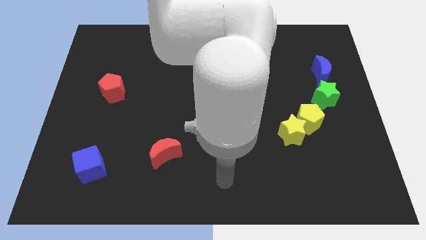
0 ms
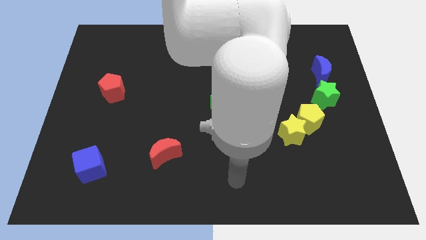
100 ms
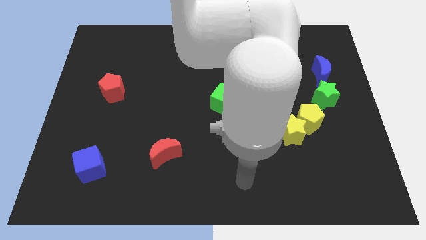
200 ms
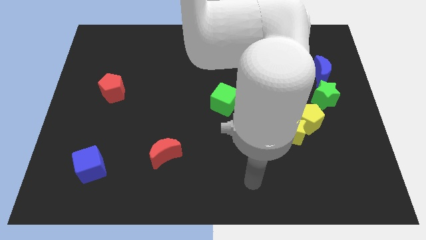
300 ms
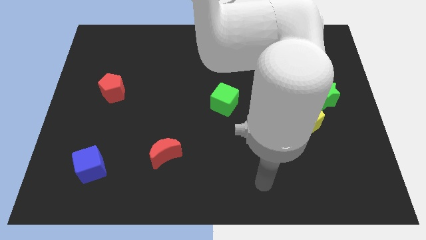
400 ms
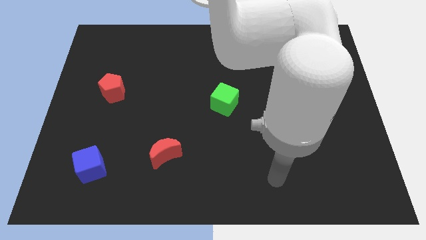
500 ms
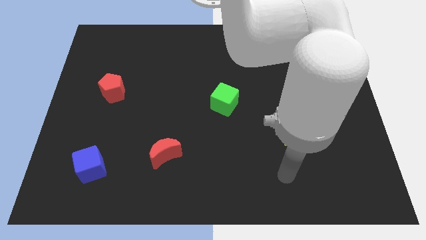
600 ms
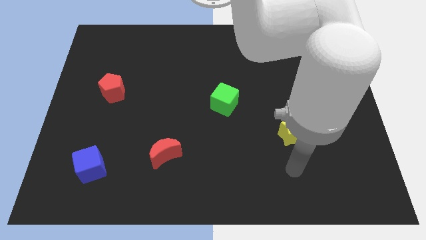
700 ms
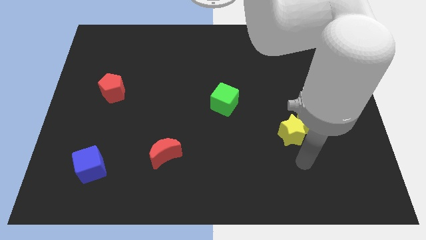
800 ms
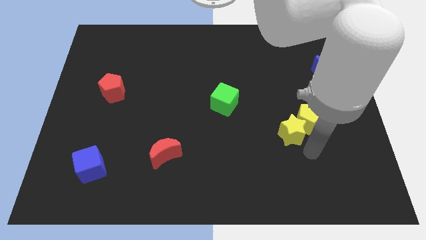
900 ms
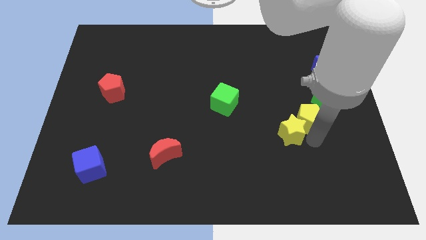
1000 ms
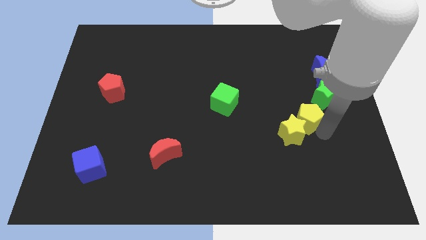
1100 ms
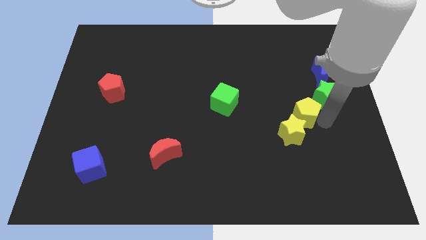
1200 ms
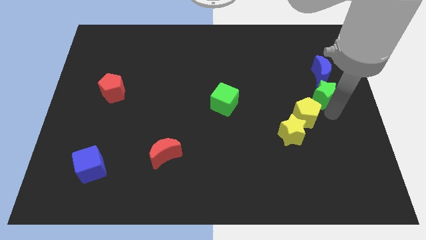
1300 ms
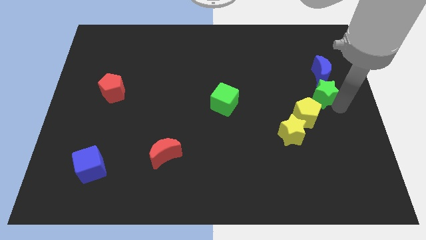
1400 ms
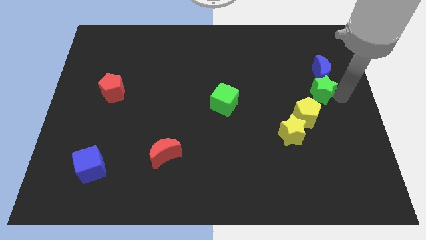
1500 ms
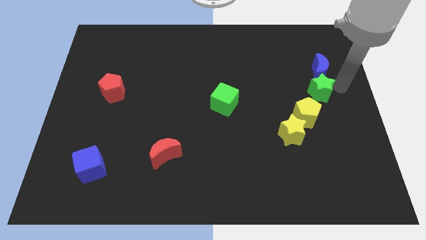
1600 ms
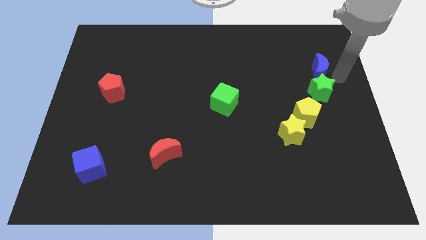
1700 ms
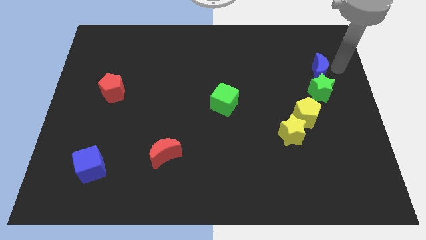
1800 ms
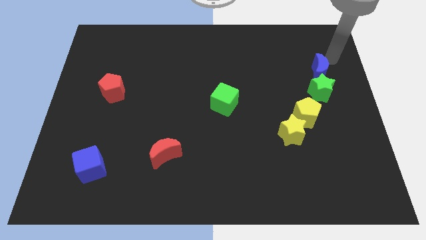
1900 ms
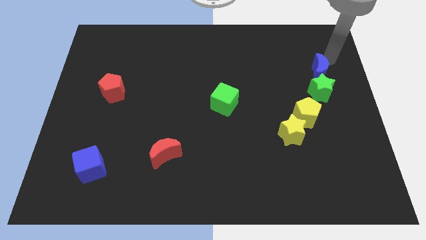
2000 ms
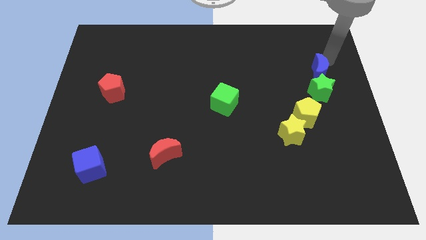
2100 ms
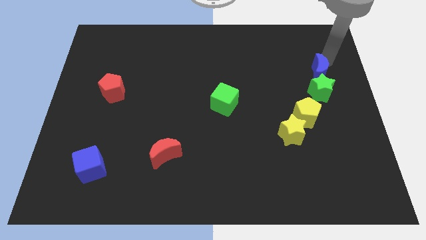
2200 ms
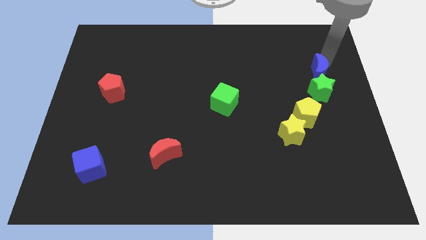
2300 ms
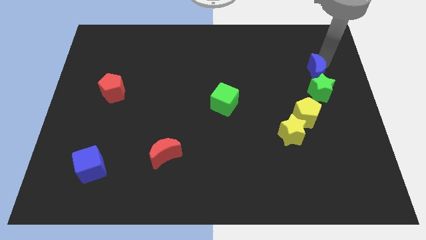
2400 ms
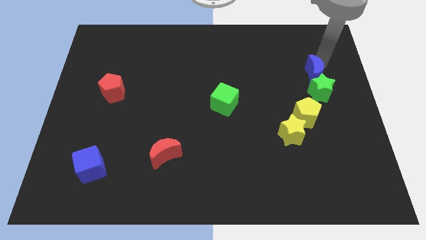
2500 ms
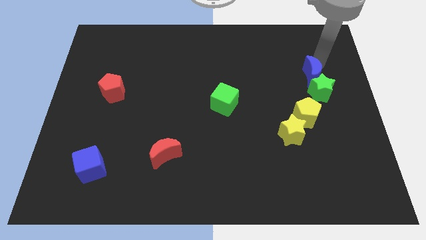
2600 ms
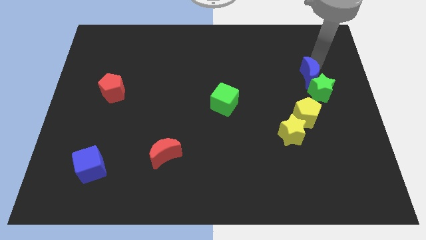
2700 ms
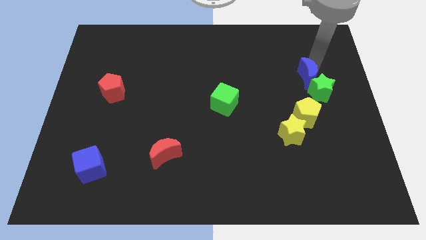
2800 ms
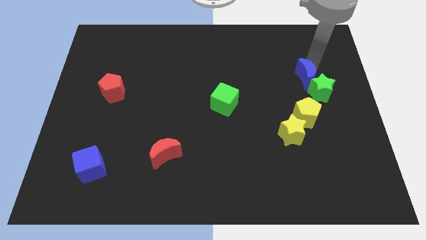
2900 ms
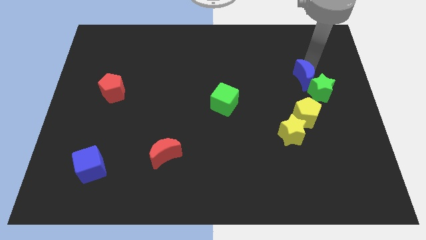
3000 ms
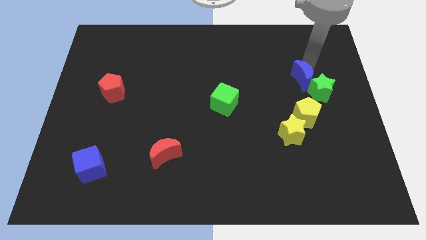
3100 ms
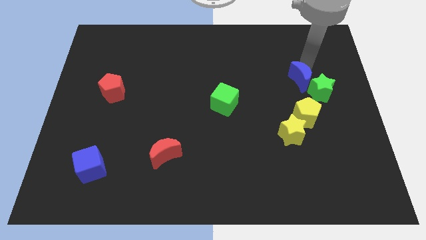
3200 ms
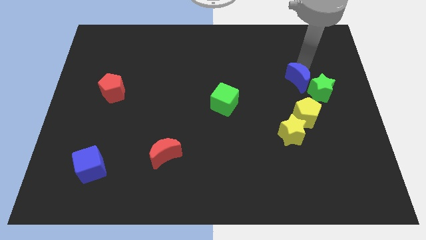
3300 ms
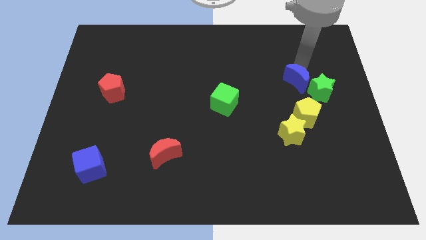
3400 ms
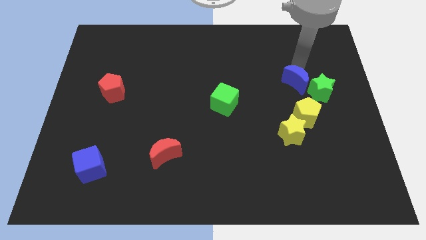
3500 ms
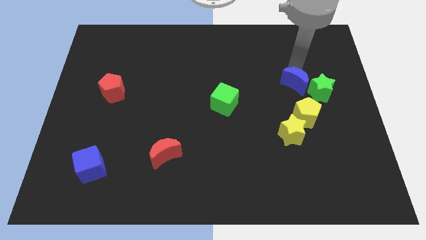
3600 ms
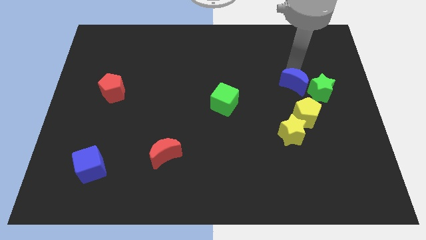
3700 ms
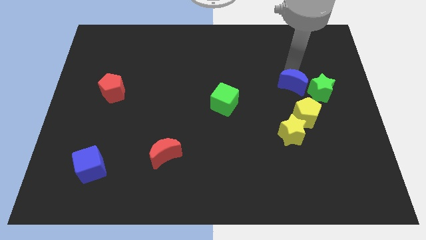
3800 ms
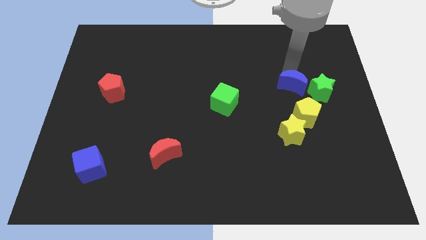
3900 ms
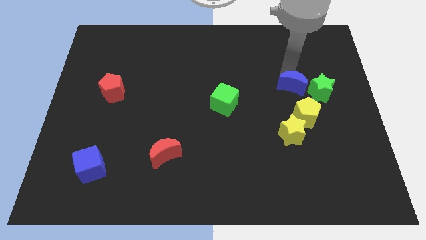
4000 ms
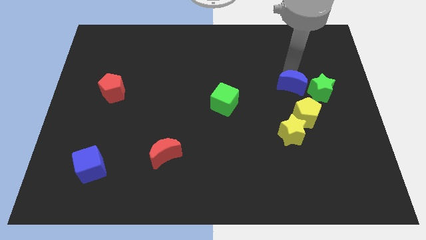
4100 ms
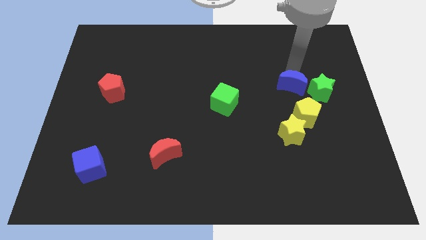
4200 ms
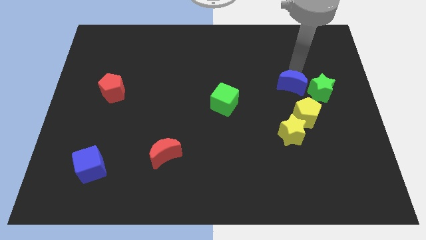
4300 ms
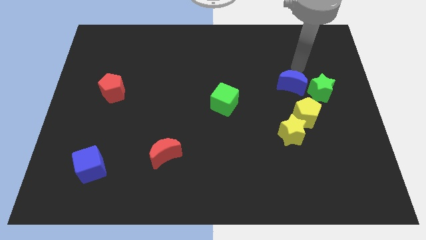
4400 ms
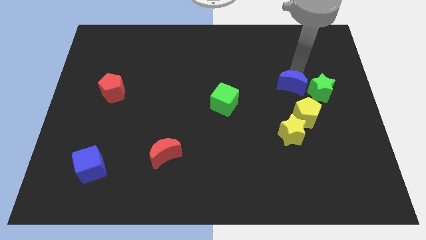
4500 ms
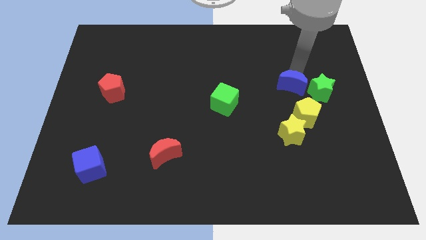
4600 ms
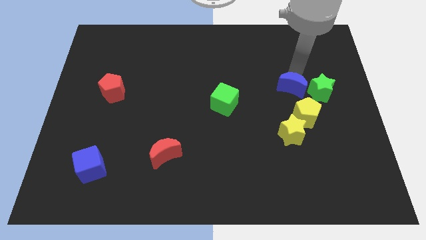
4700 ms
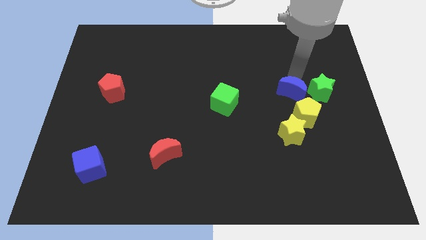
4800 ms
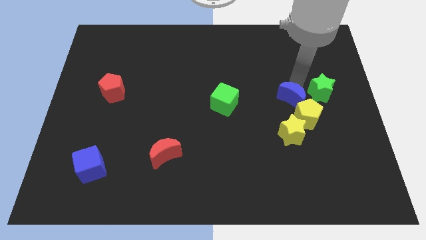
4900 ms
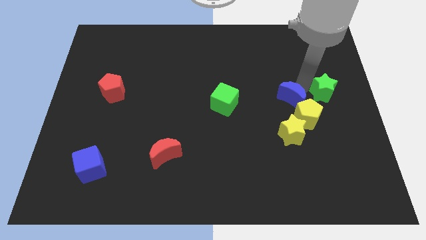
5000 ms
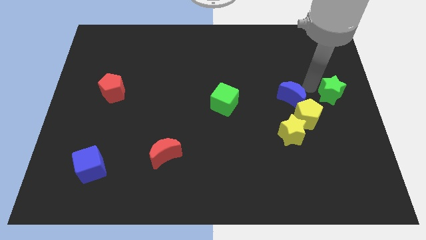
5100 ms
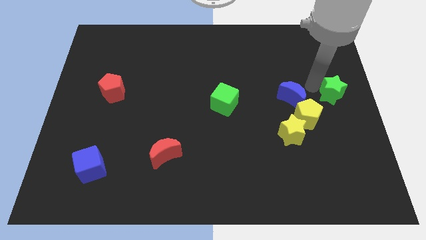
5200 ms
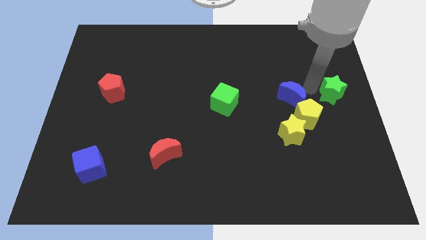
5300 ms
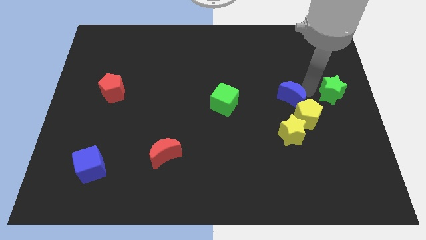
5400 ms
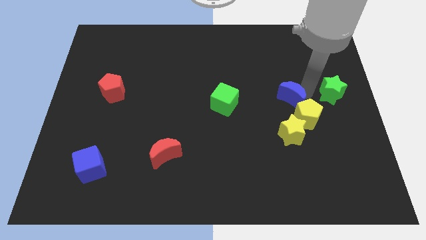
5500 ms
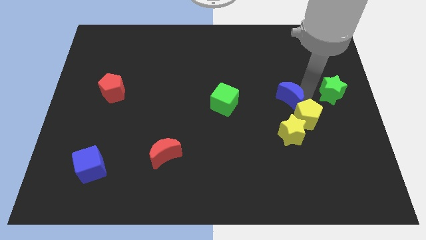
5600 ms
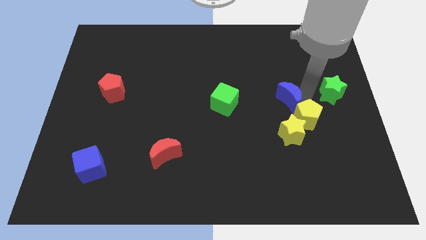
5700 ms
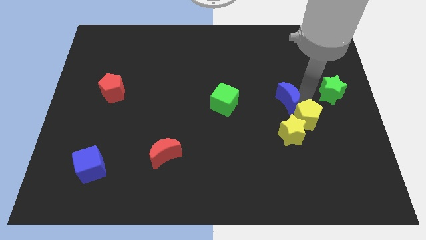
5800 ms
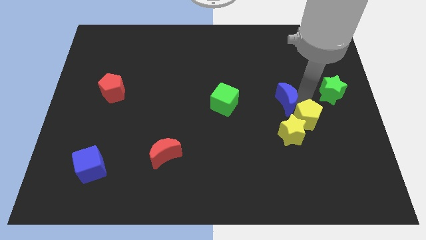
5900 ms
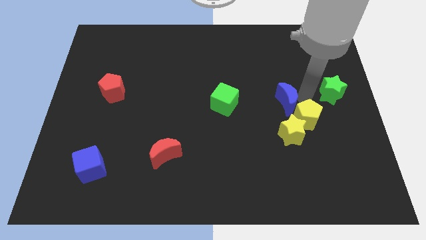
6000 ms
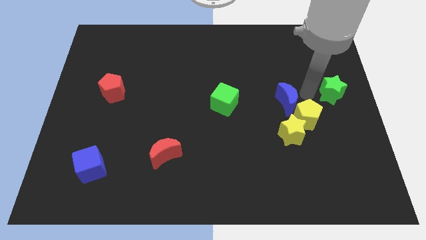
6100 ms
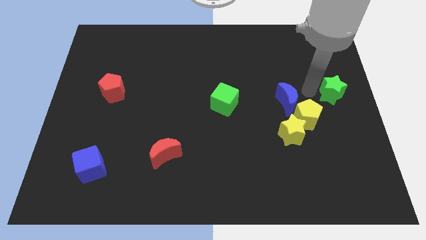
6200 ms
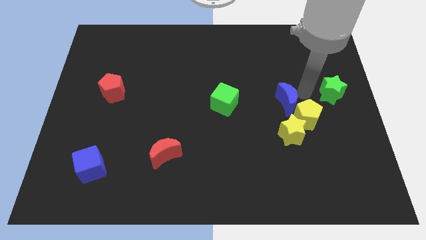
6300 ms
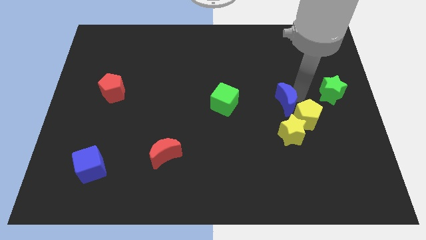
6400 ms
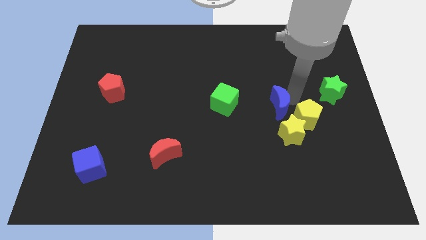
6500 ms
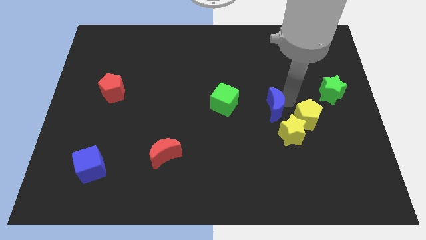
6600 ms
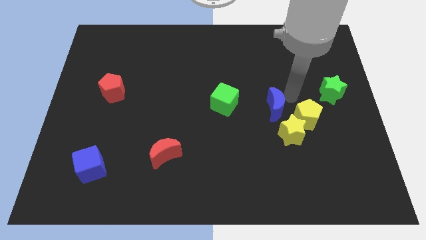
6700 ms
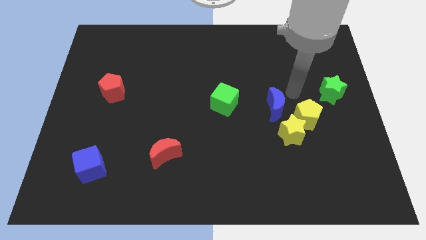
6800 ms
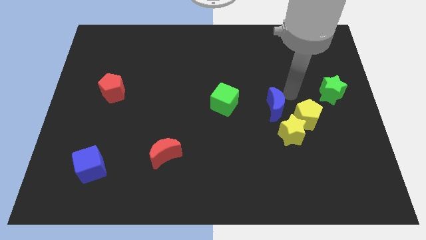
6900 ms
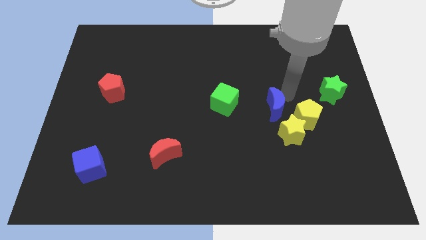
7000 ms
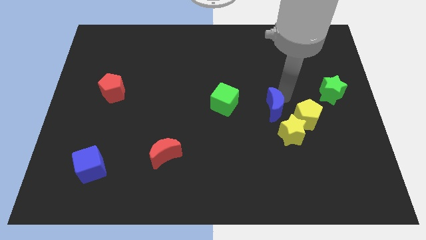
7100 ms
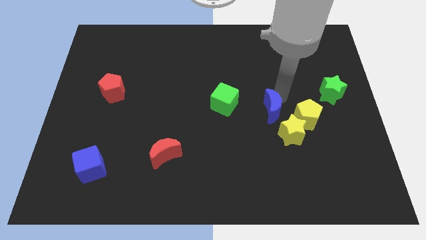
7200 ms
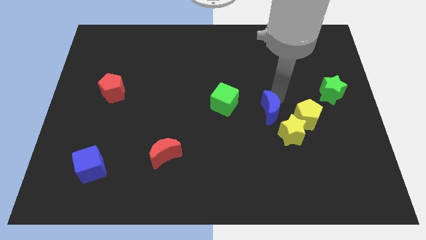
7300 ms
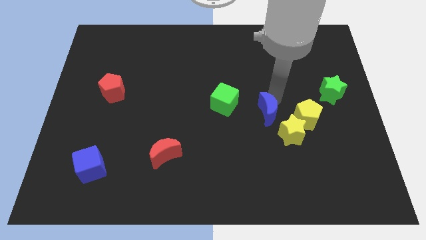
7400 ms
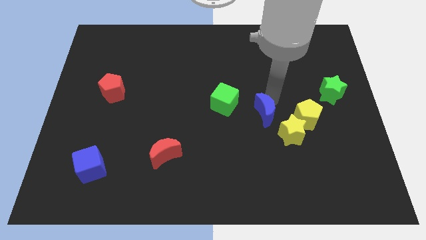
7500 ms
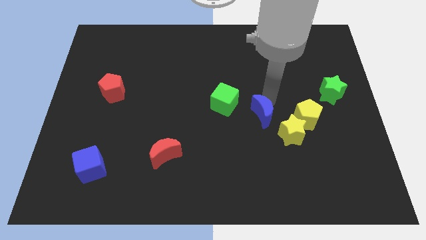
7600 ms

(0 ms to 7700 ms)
push the blue moon downwards and left diagonally
